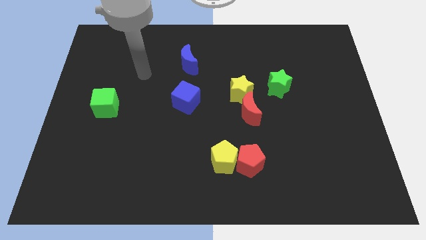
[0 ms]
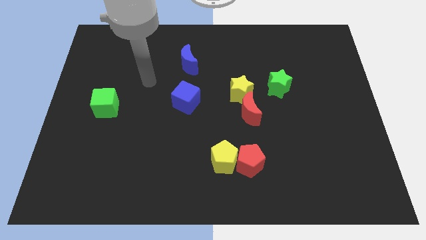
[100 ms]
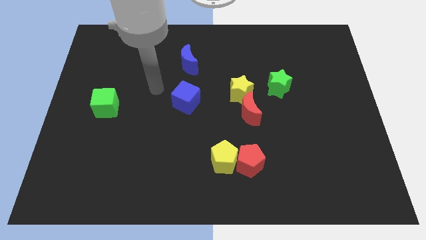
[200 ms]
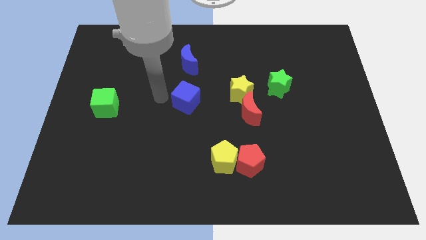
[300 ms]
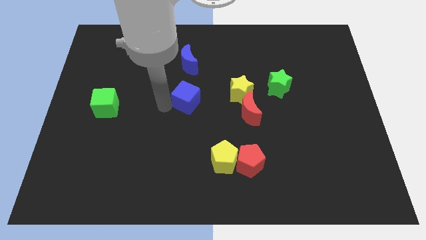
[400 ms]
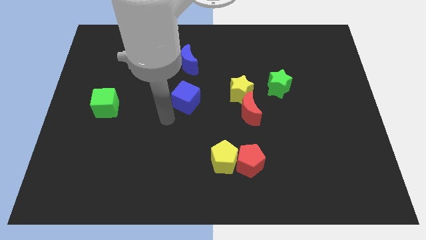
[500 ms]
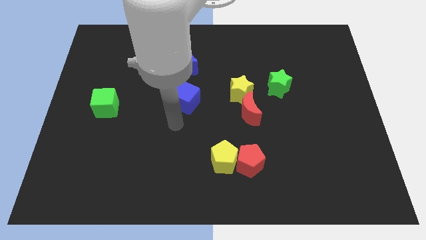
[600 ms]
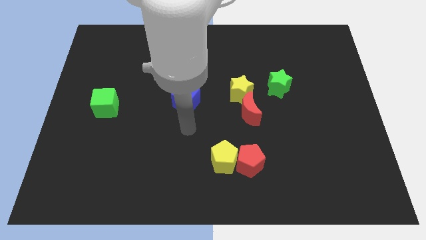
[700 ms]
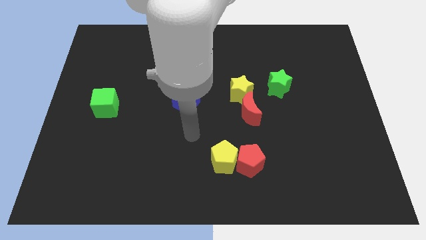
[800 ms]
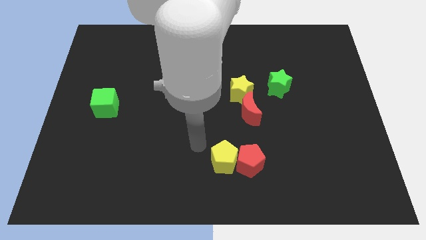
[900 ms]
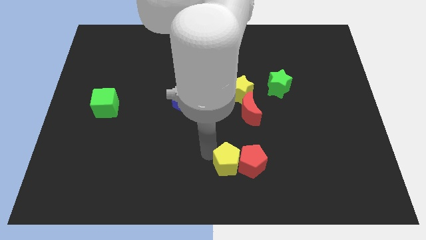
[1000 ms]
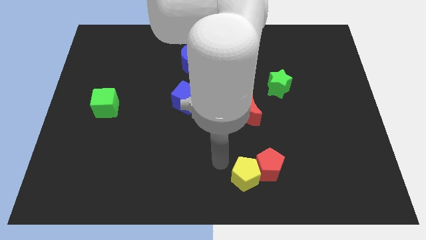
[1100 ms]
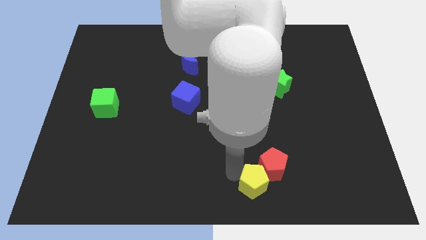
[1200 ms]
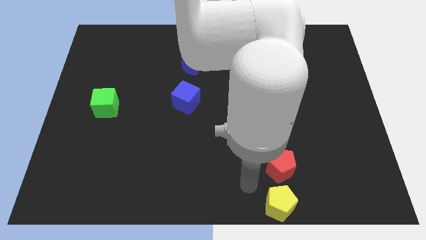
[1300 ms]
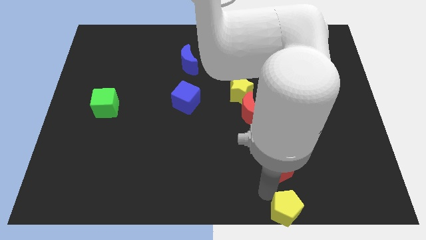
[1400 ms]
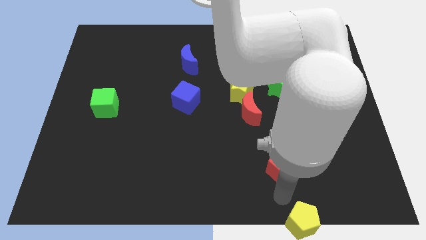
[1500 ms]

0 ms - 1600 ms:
move the red pentagon away from the yellow pentagon

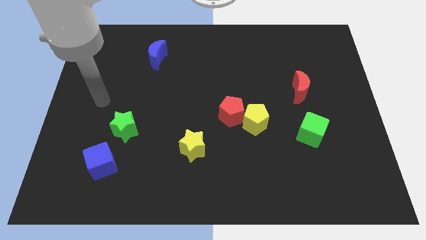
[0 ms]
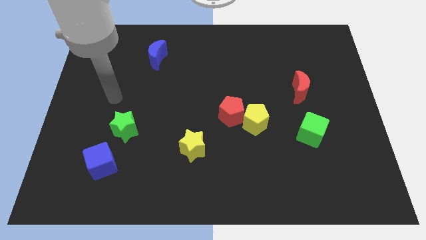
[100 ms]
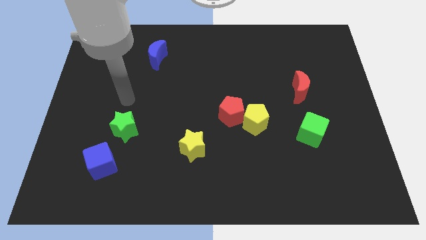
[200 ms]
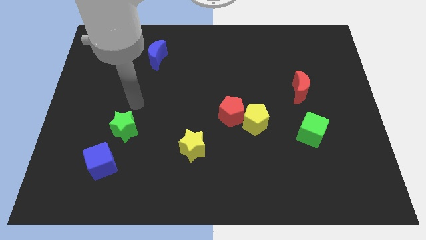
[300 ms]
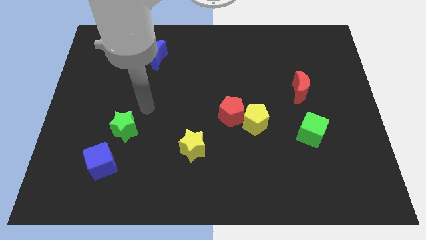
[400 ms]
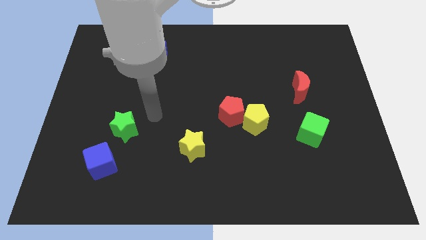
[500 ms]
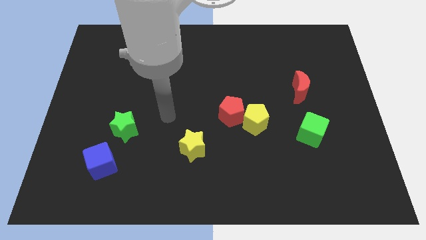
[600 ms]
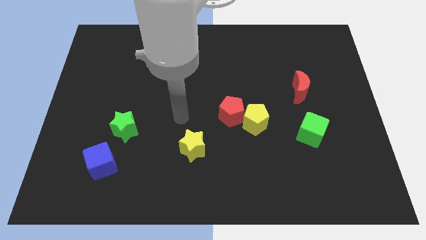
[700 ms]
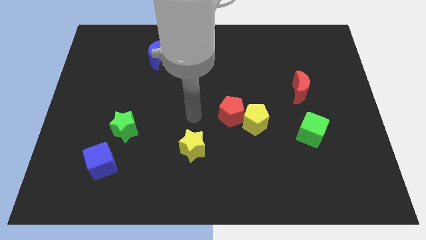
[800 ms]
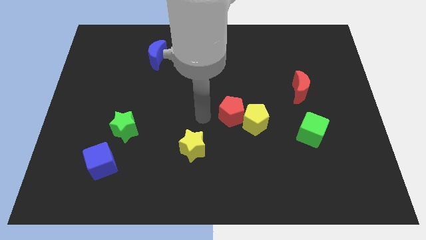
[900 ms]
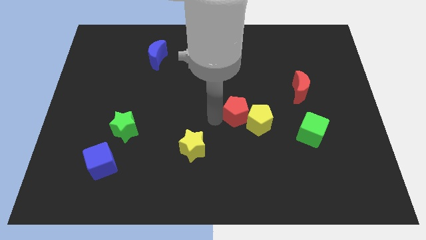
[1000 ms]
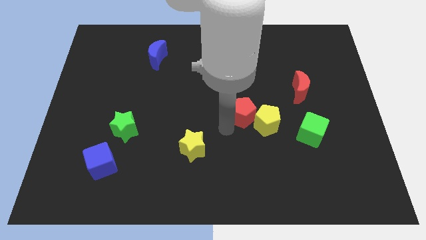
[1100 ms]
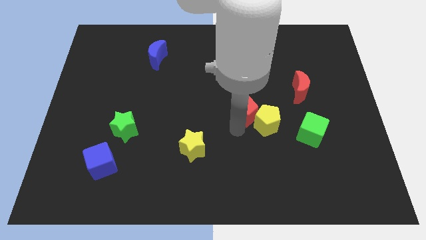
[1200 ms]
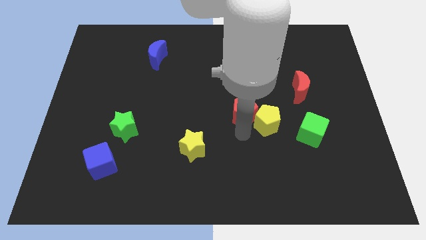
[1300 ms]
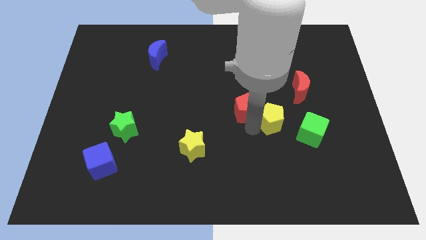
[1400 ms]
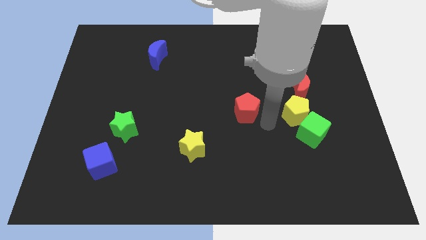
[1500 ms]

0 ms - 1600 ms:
pull the red pentagon apart from the yellow pentagon

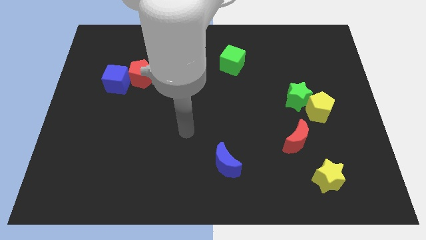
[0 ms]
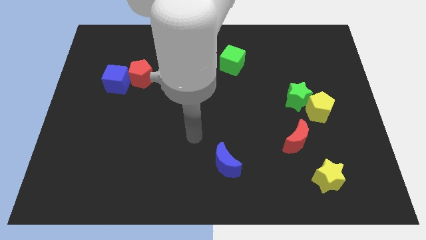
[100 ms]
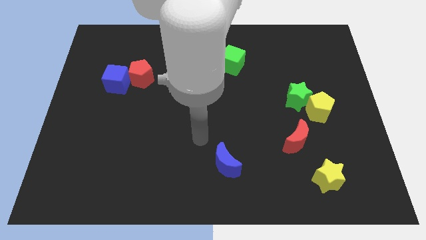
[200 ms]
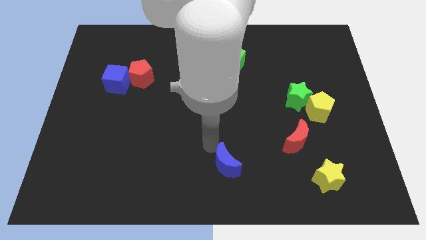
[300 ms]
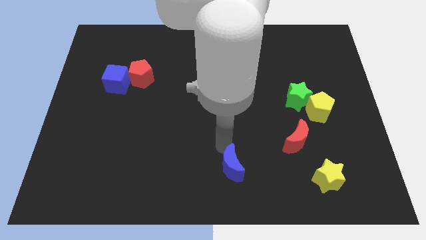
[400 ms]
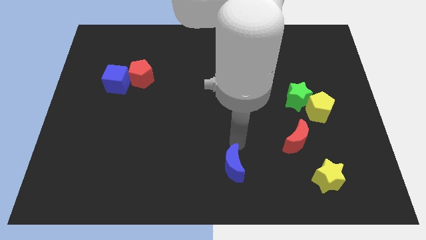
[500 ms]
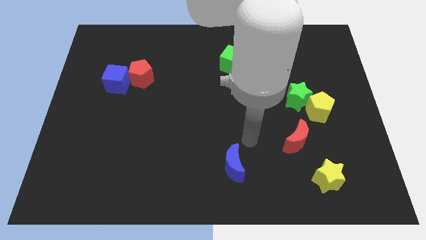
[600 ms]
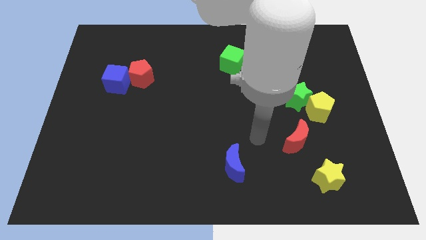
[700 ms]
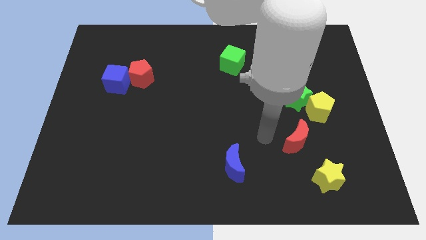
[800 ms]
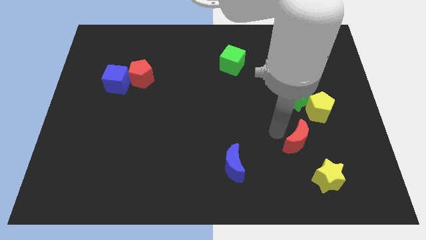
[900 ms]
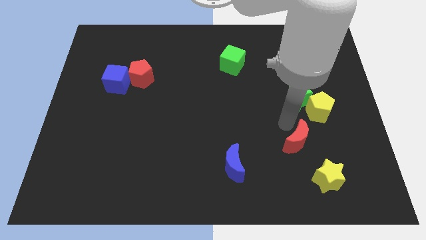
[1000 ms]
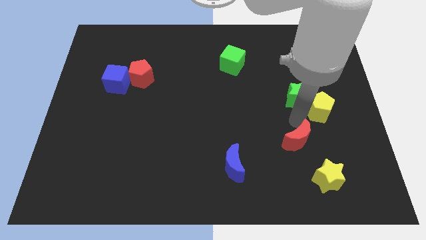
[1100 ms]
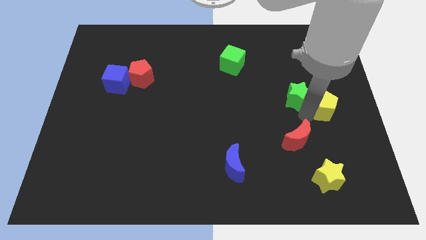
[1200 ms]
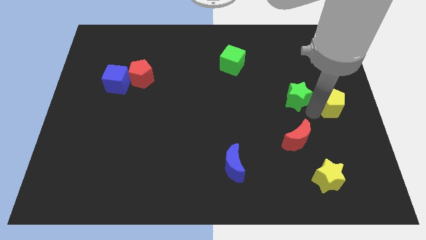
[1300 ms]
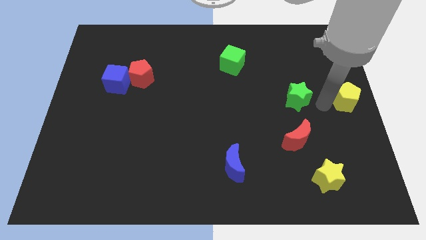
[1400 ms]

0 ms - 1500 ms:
pull the green star apart from the yellow pentagon

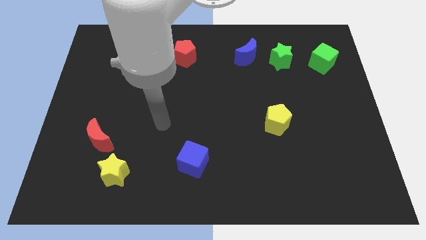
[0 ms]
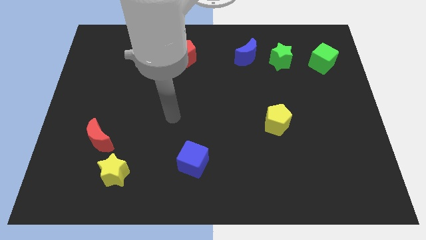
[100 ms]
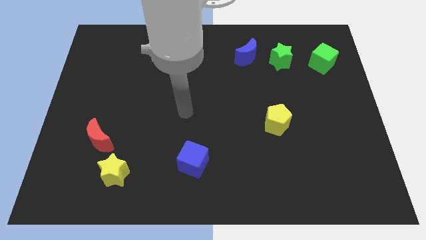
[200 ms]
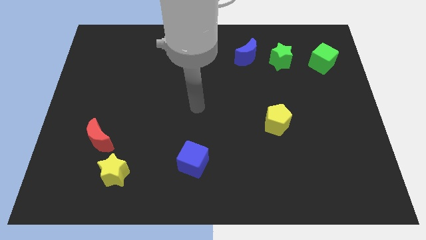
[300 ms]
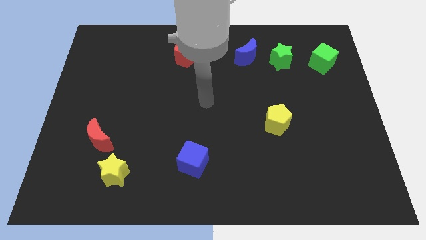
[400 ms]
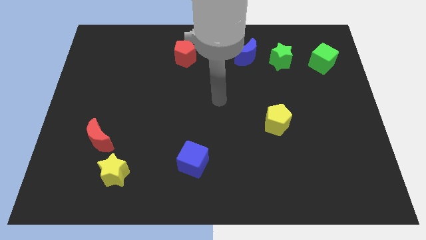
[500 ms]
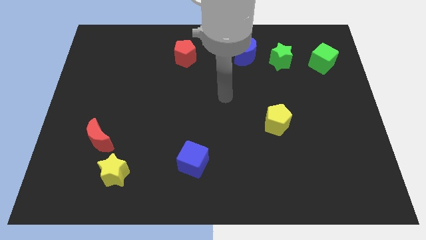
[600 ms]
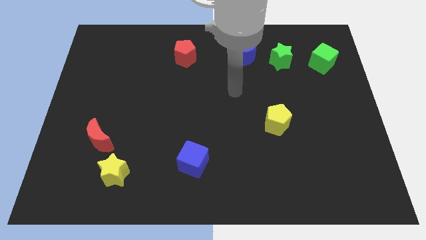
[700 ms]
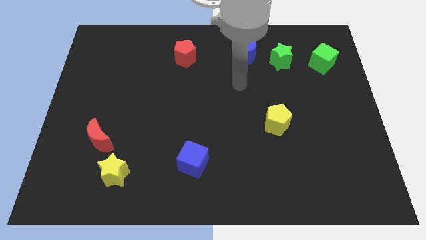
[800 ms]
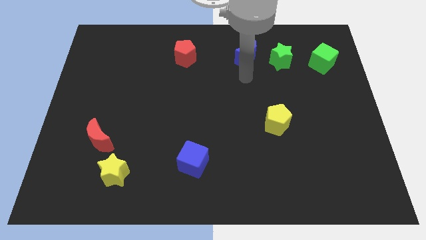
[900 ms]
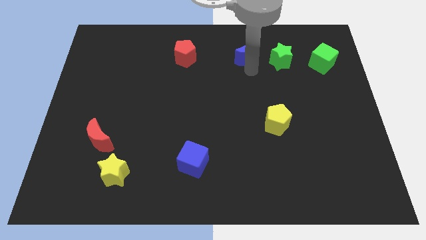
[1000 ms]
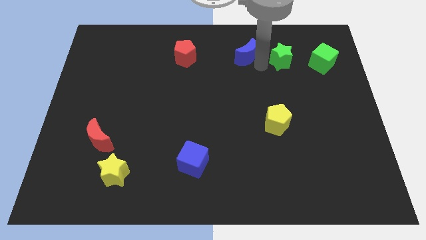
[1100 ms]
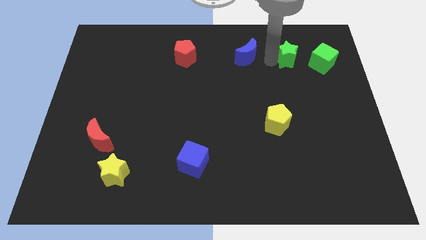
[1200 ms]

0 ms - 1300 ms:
pull the blue moon apart from the green star

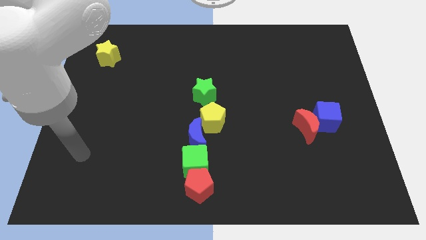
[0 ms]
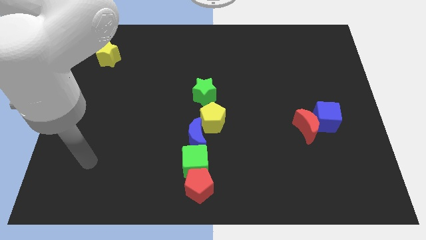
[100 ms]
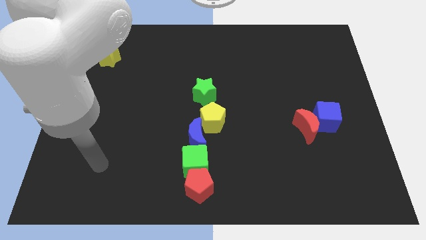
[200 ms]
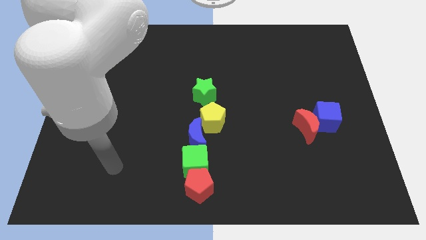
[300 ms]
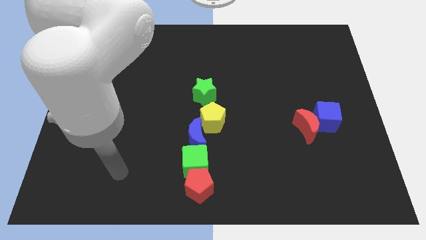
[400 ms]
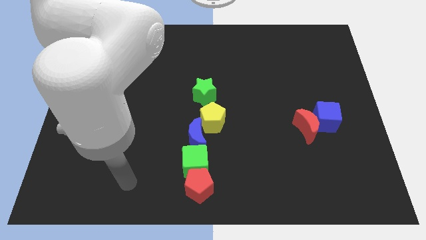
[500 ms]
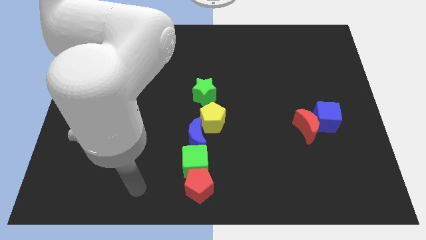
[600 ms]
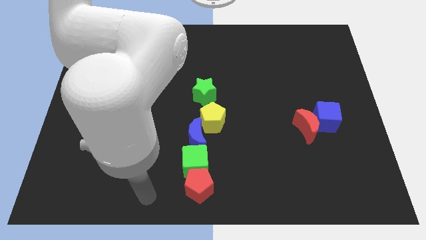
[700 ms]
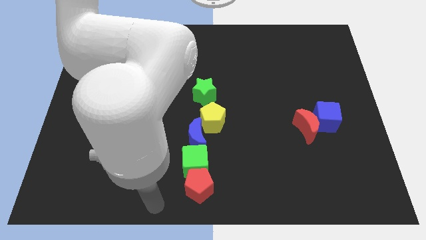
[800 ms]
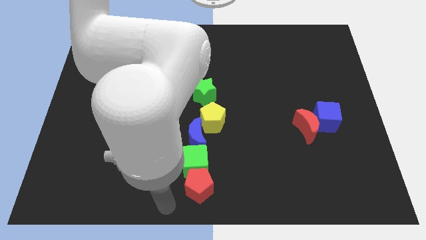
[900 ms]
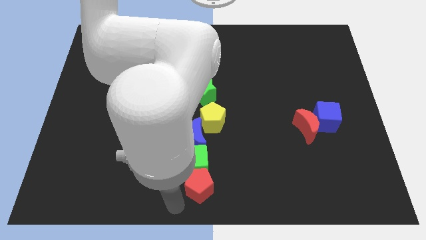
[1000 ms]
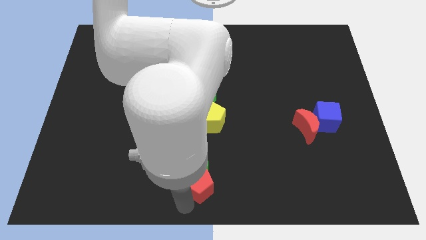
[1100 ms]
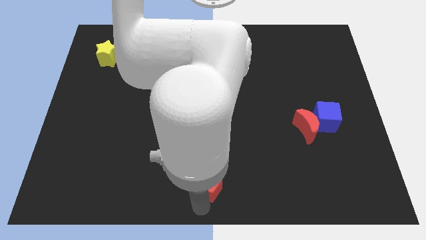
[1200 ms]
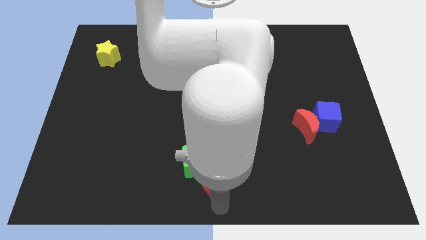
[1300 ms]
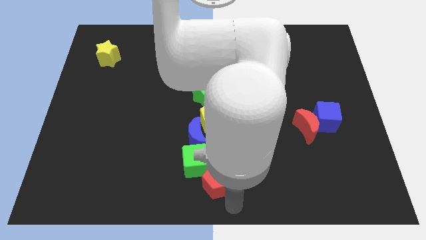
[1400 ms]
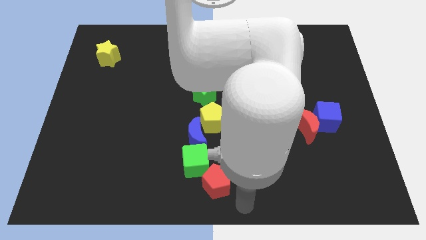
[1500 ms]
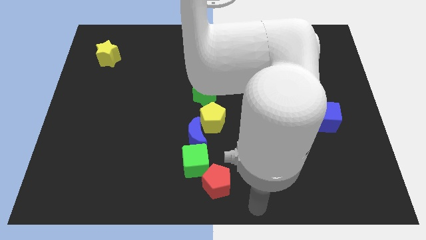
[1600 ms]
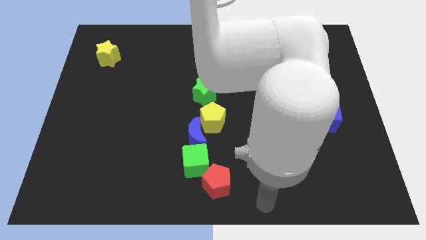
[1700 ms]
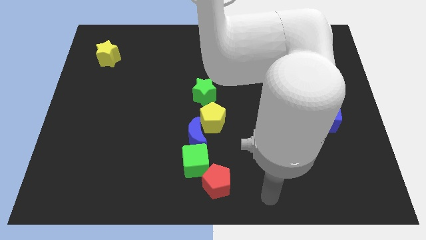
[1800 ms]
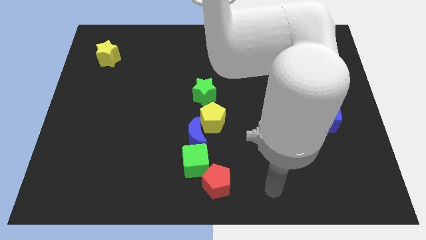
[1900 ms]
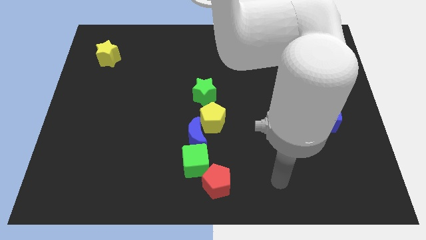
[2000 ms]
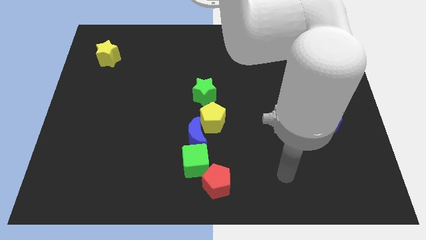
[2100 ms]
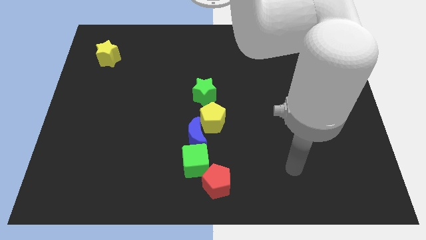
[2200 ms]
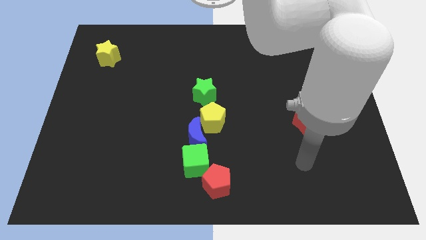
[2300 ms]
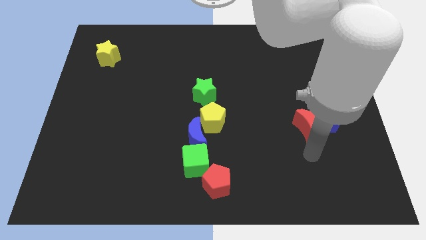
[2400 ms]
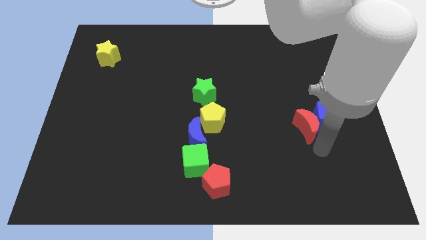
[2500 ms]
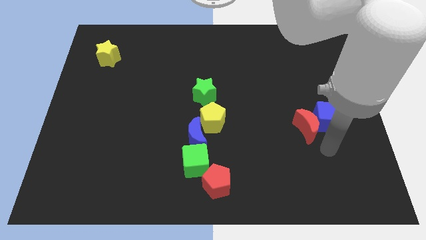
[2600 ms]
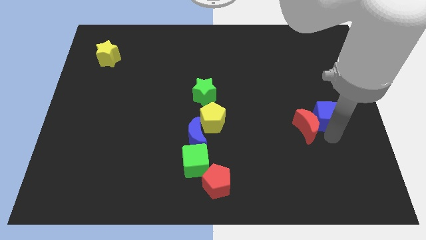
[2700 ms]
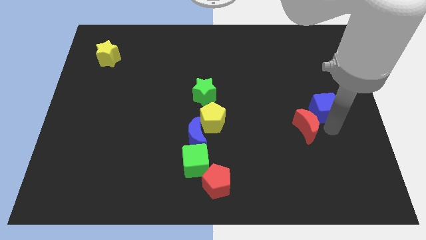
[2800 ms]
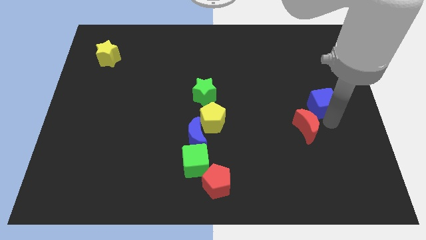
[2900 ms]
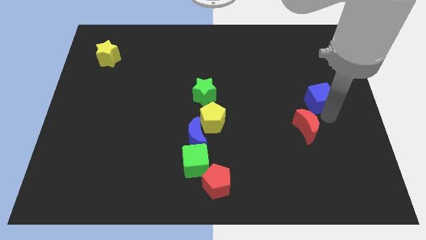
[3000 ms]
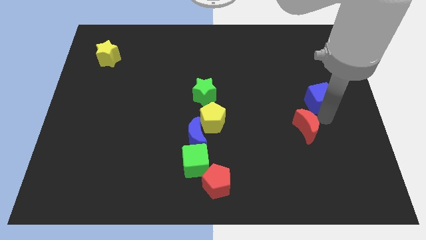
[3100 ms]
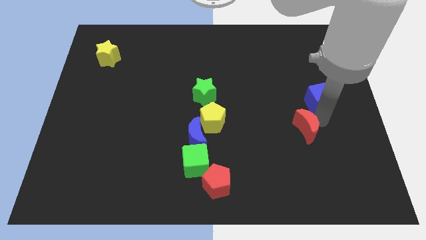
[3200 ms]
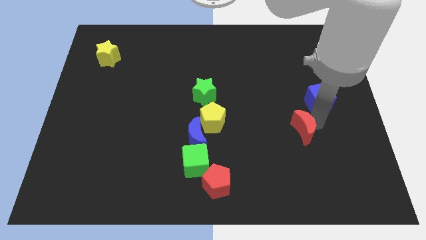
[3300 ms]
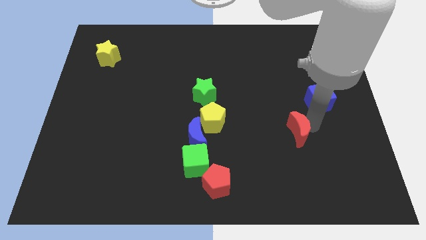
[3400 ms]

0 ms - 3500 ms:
separate the red moon from the blue cube
